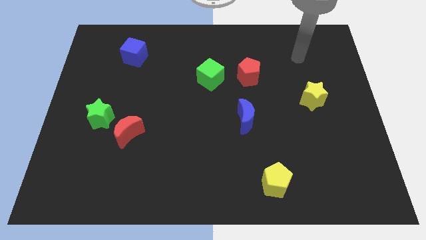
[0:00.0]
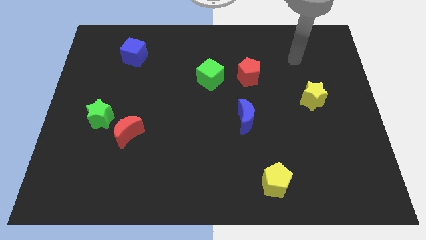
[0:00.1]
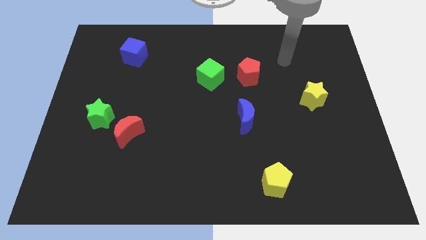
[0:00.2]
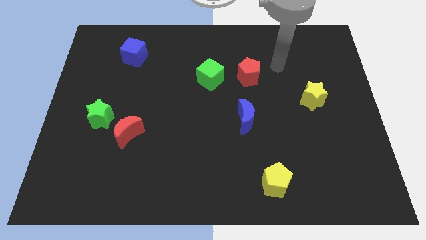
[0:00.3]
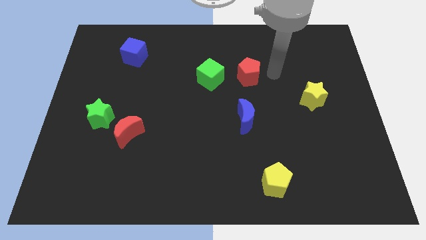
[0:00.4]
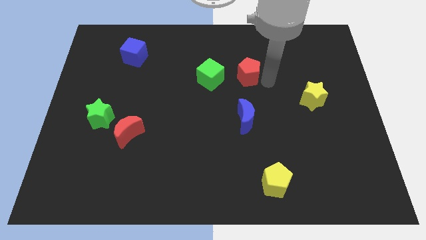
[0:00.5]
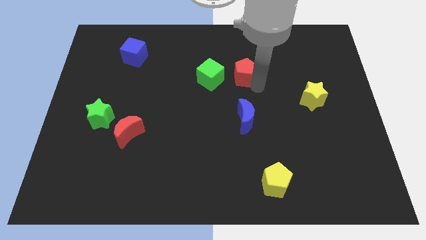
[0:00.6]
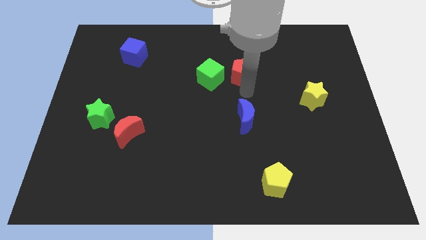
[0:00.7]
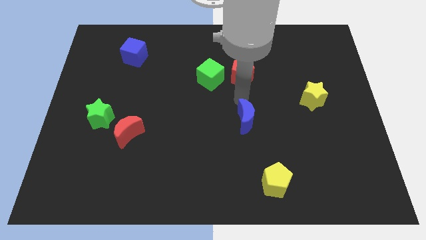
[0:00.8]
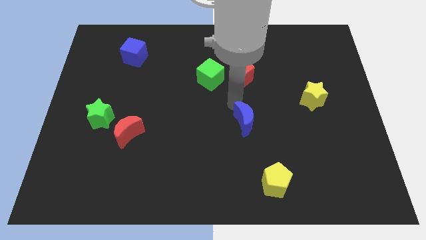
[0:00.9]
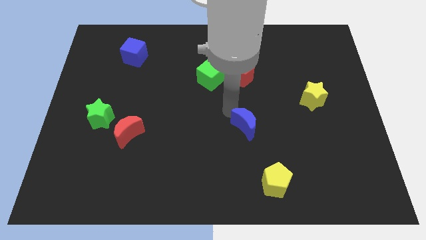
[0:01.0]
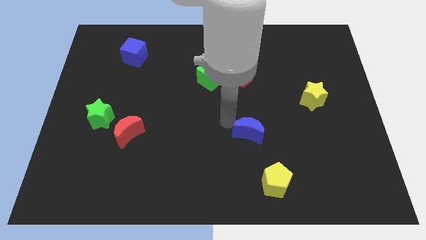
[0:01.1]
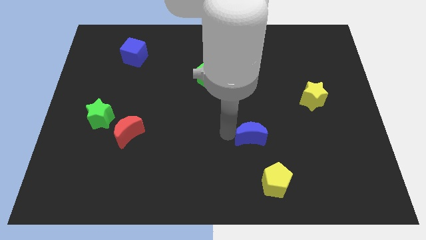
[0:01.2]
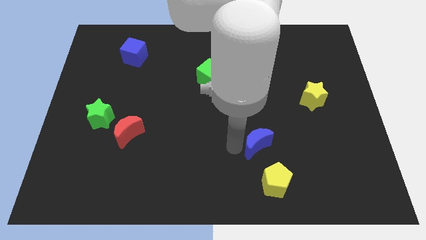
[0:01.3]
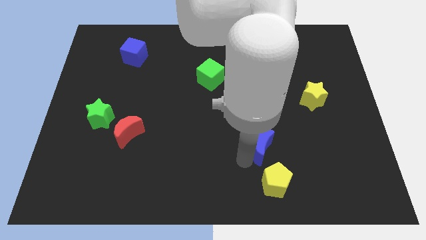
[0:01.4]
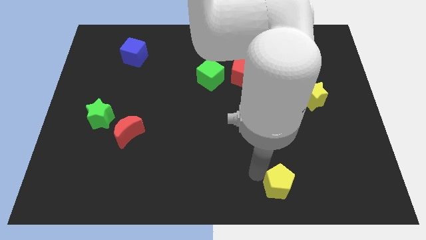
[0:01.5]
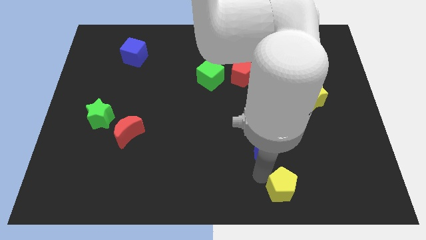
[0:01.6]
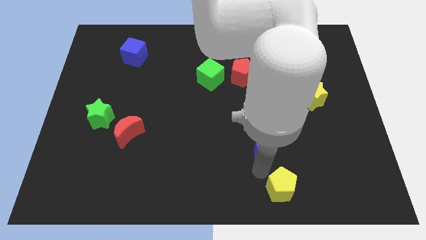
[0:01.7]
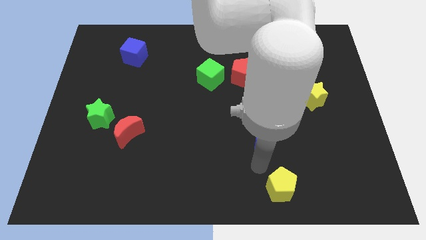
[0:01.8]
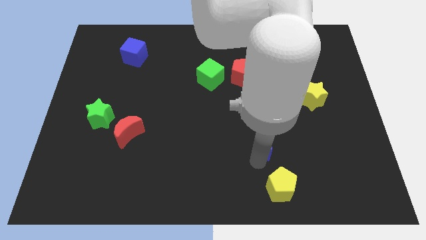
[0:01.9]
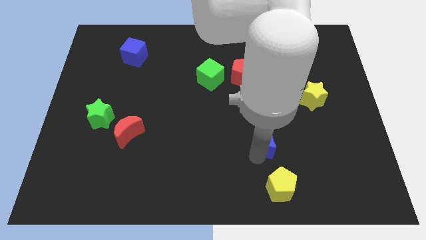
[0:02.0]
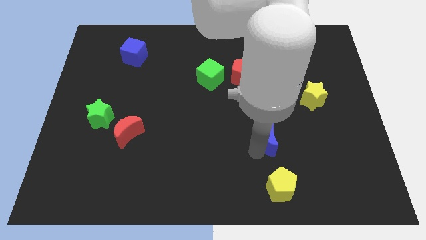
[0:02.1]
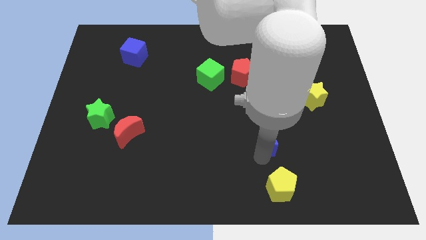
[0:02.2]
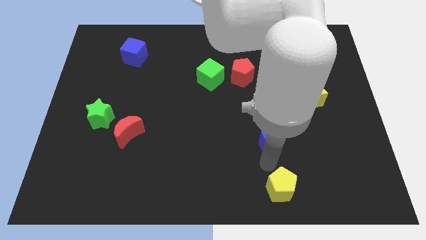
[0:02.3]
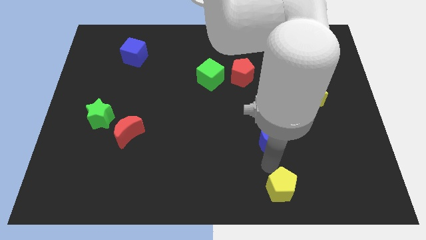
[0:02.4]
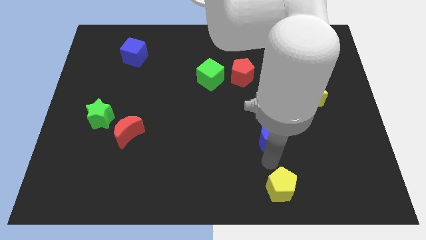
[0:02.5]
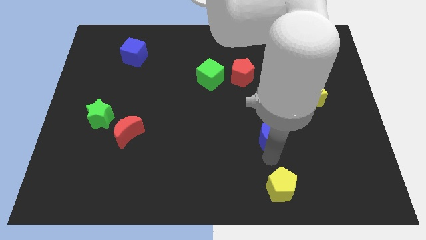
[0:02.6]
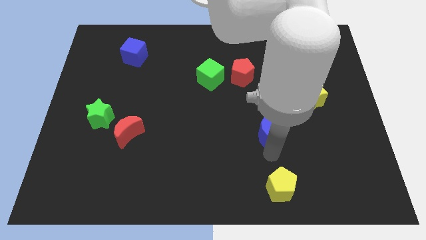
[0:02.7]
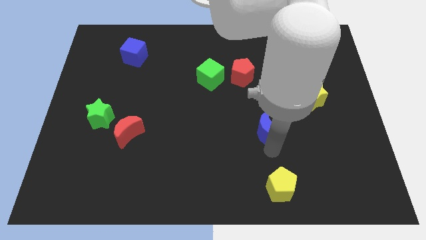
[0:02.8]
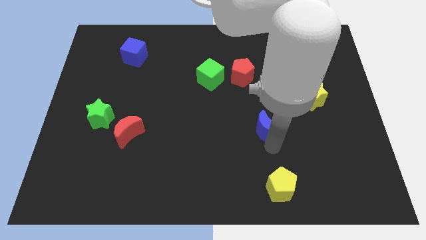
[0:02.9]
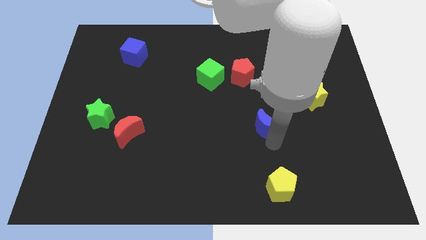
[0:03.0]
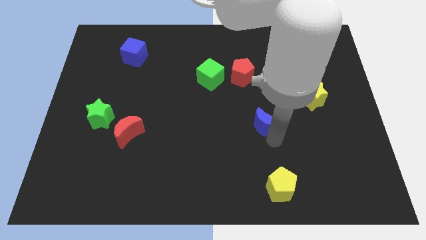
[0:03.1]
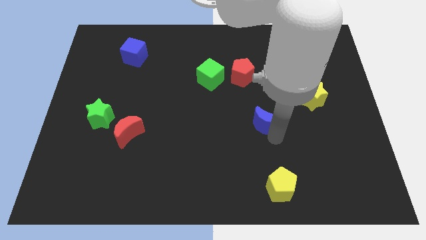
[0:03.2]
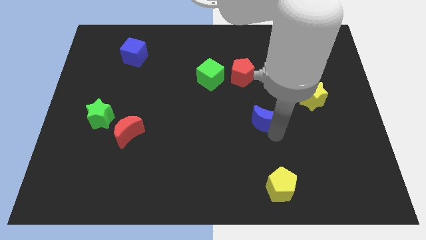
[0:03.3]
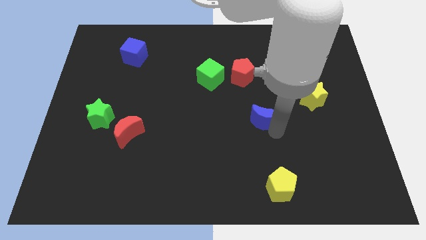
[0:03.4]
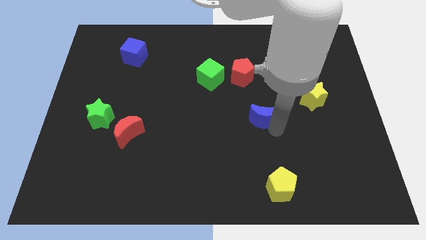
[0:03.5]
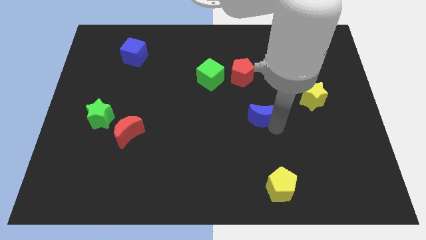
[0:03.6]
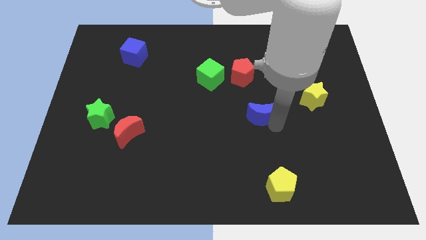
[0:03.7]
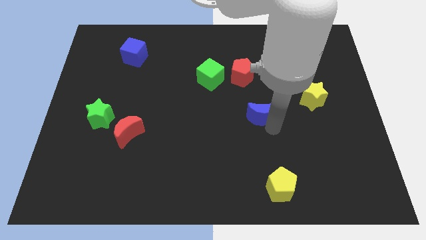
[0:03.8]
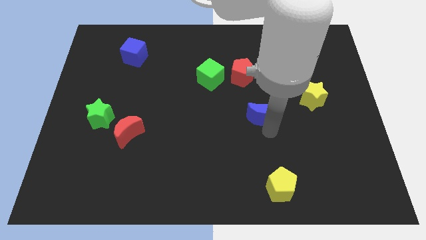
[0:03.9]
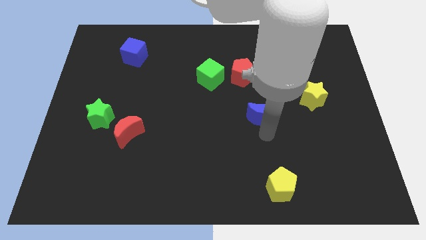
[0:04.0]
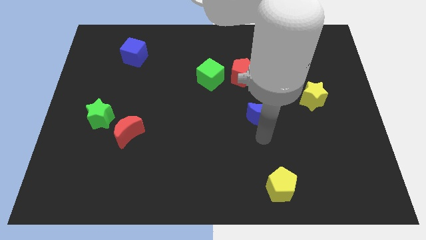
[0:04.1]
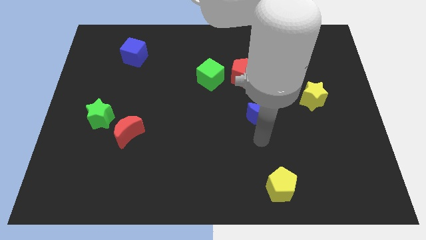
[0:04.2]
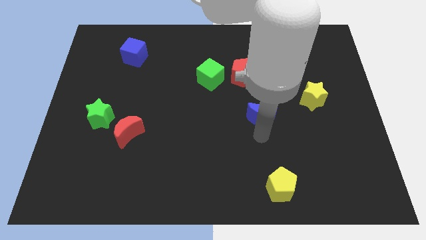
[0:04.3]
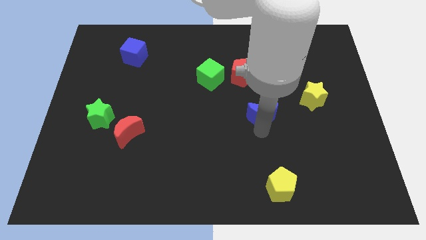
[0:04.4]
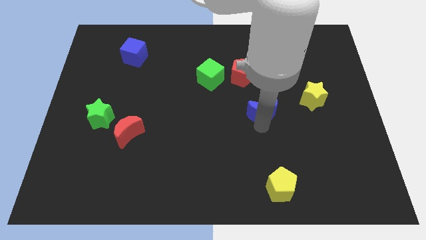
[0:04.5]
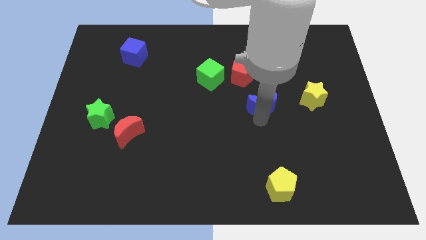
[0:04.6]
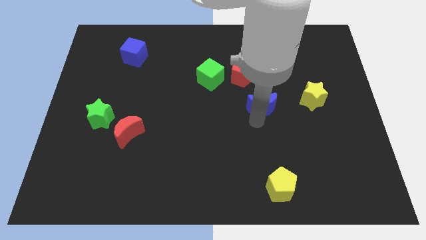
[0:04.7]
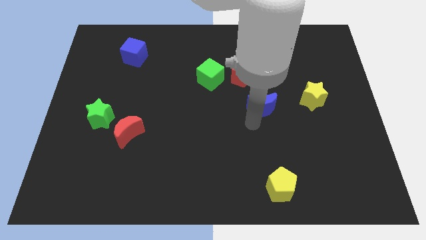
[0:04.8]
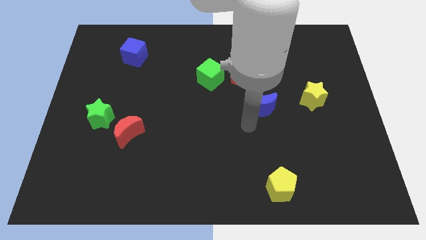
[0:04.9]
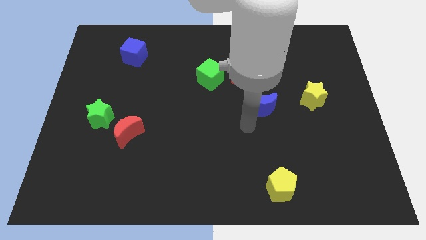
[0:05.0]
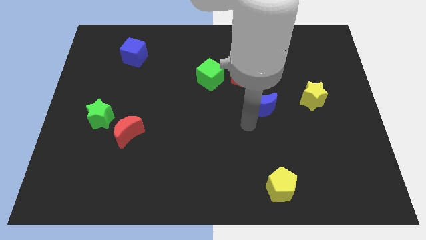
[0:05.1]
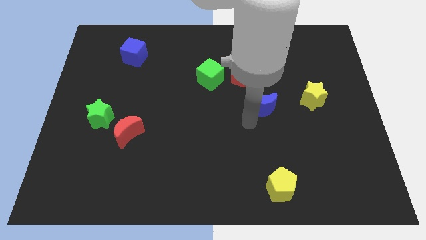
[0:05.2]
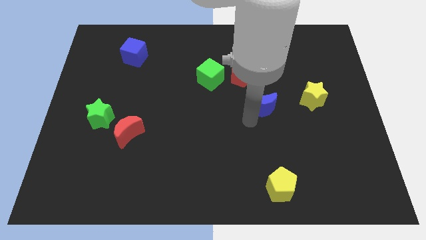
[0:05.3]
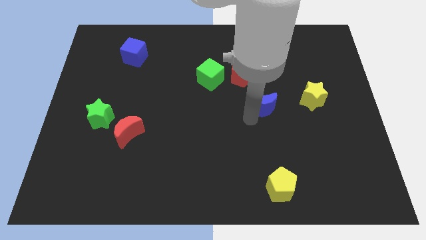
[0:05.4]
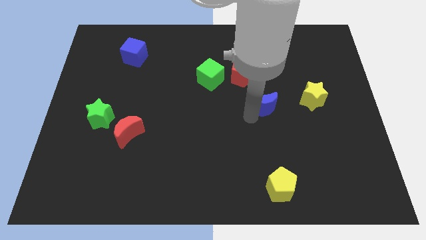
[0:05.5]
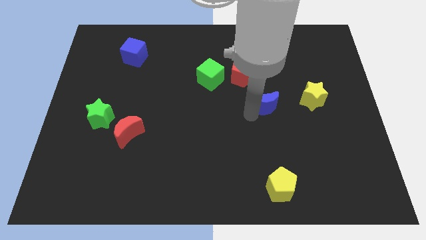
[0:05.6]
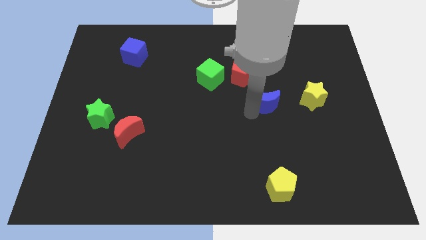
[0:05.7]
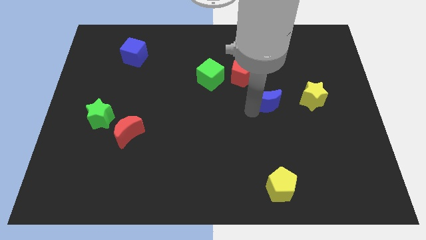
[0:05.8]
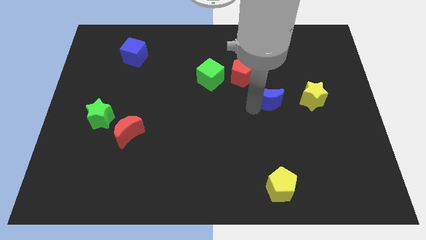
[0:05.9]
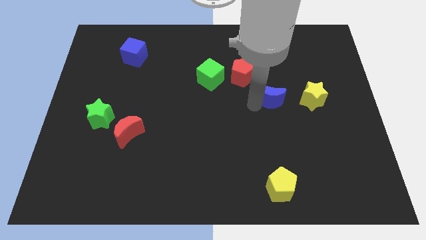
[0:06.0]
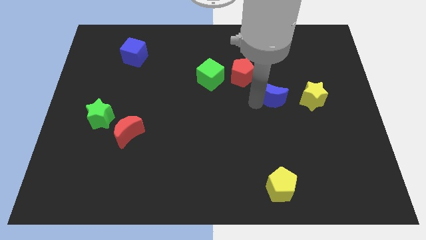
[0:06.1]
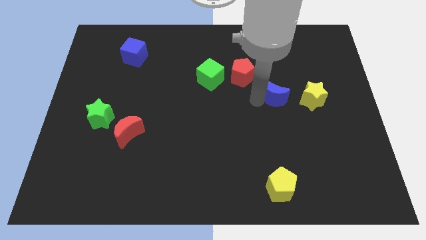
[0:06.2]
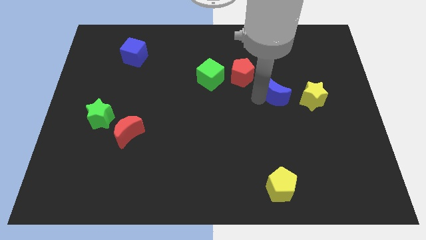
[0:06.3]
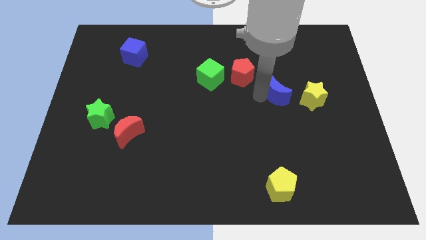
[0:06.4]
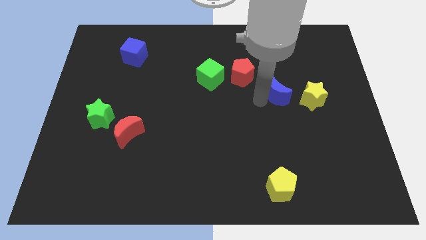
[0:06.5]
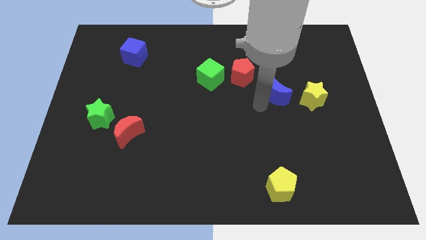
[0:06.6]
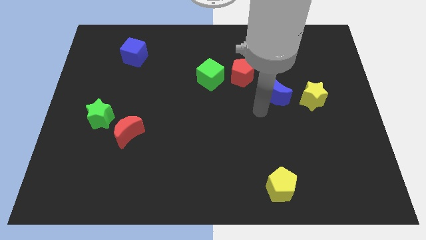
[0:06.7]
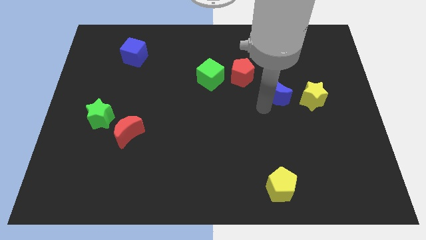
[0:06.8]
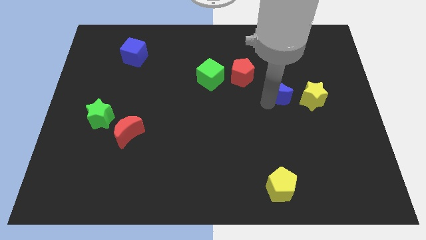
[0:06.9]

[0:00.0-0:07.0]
push the blue moon diagonally up and to the left of the yellow star

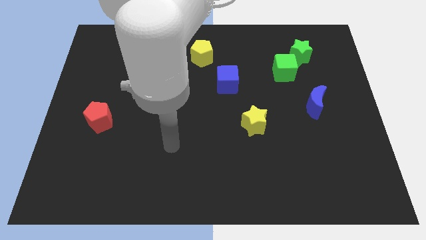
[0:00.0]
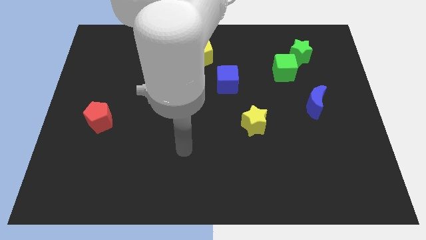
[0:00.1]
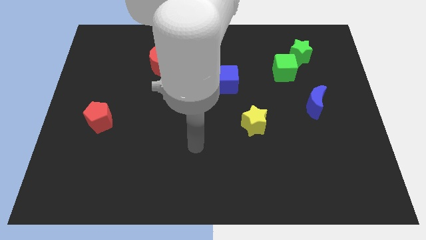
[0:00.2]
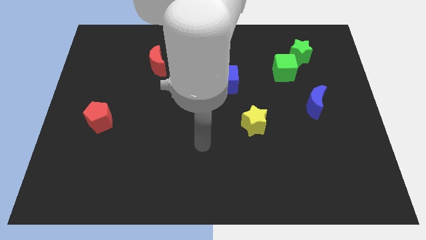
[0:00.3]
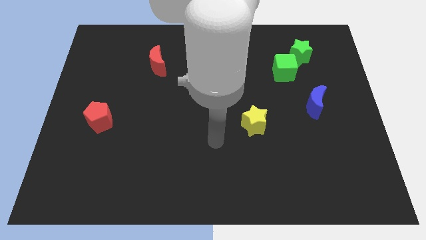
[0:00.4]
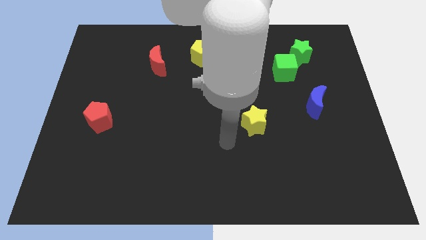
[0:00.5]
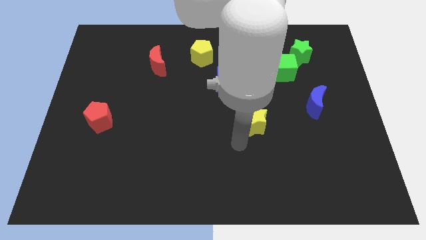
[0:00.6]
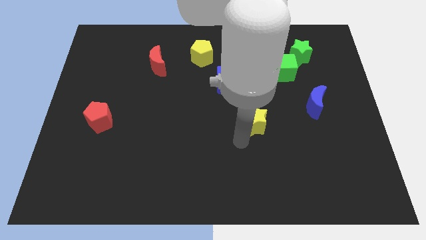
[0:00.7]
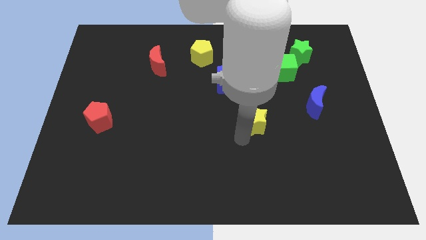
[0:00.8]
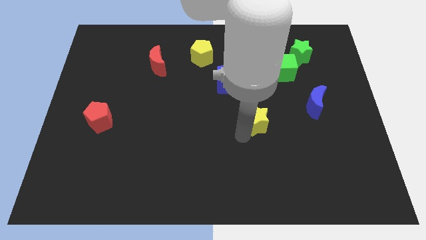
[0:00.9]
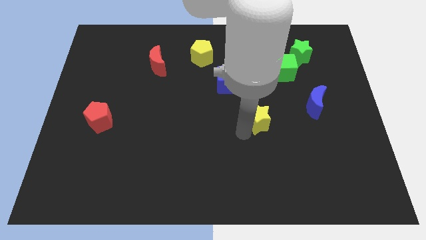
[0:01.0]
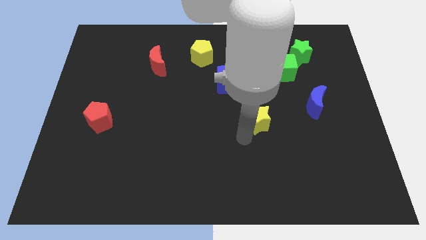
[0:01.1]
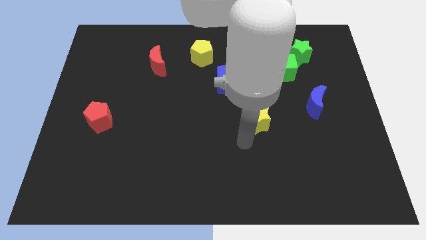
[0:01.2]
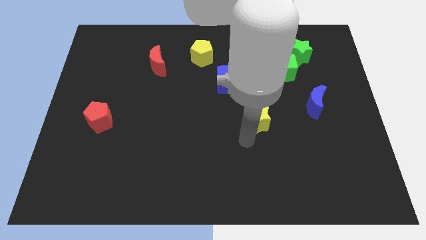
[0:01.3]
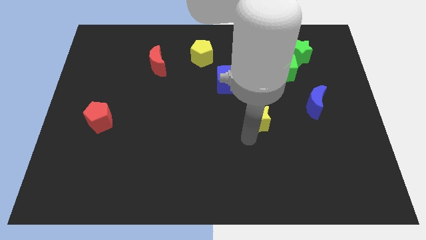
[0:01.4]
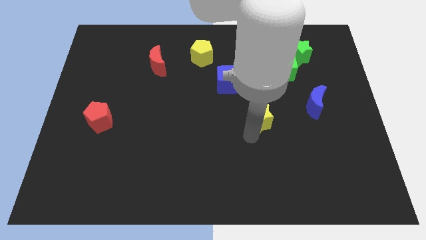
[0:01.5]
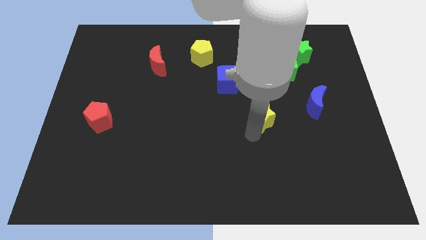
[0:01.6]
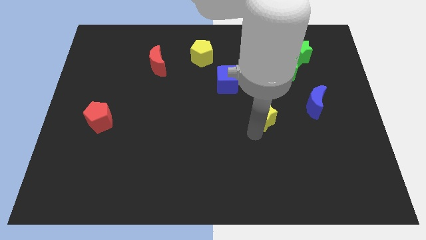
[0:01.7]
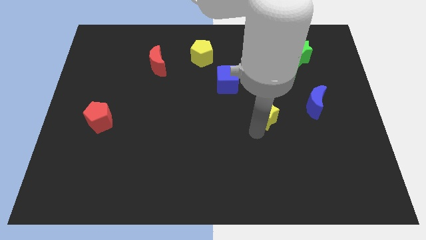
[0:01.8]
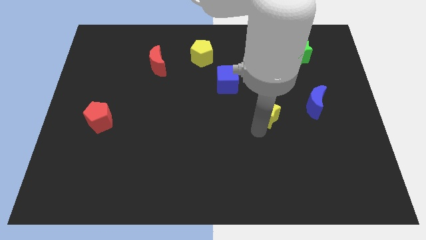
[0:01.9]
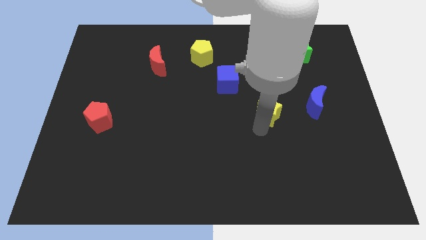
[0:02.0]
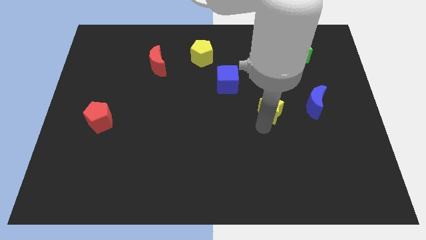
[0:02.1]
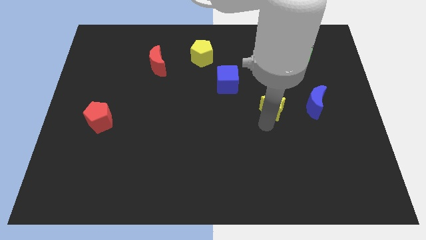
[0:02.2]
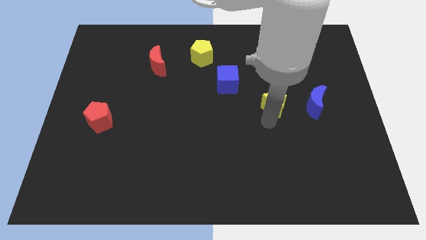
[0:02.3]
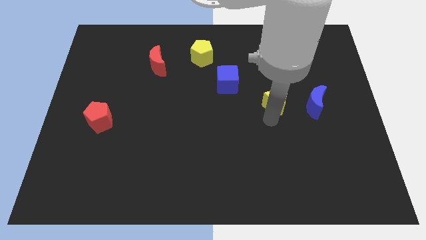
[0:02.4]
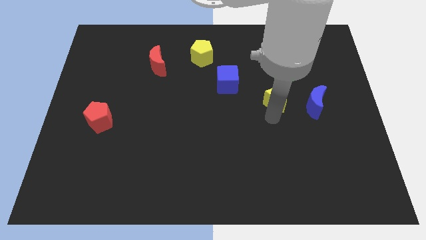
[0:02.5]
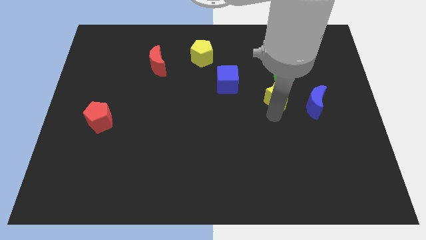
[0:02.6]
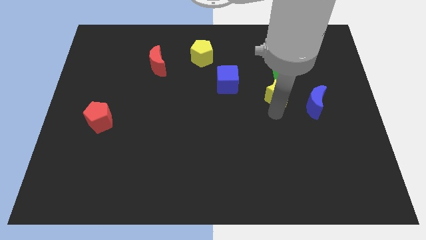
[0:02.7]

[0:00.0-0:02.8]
move the yellow star to the right side of the blue cube
